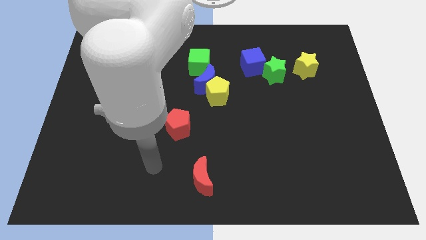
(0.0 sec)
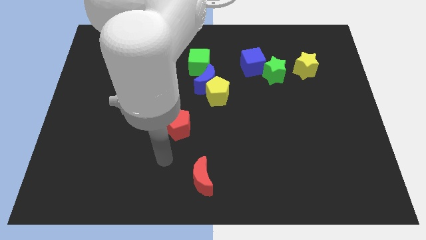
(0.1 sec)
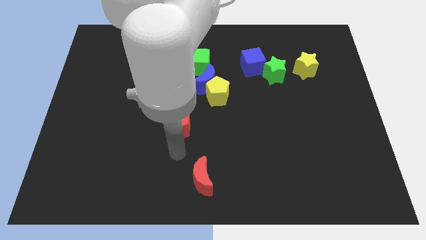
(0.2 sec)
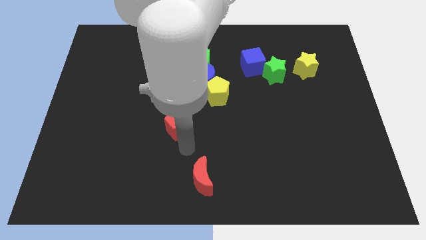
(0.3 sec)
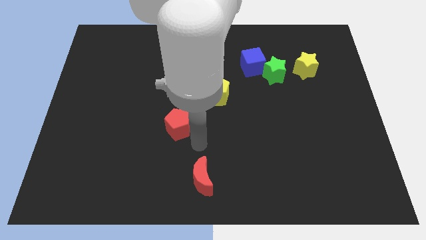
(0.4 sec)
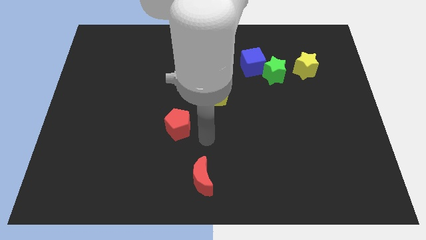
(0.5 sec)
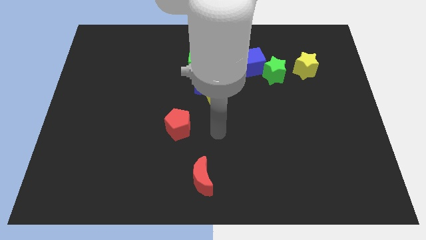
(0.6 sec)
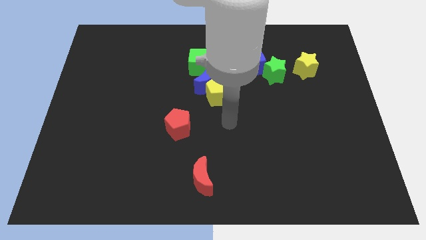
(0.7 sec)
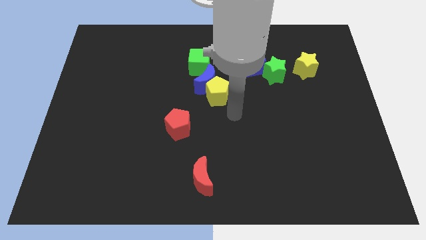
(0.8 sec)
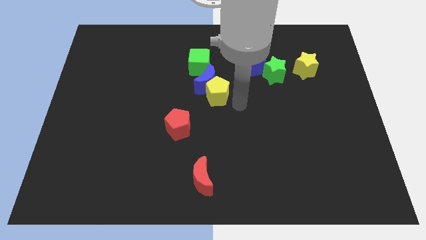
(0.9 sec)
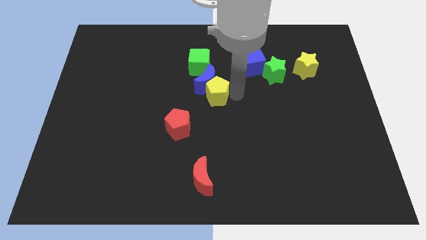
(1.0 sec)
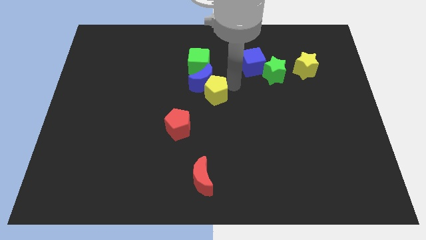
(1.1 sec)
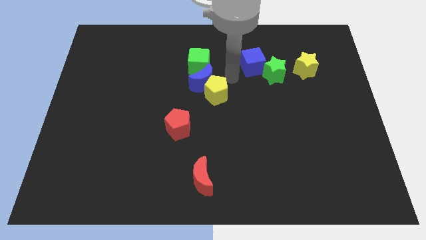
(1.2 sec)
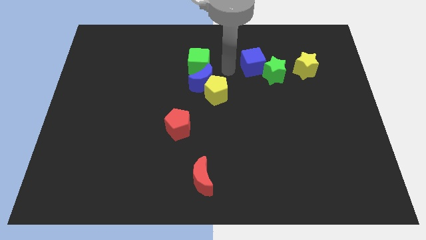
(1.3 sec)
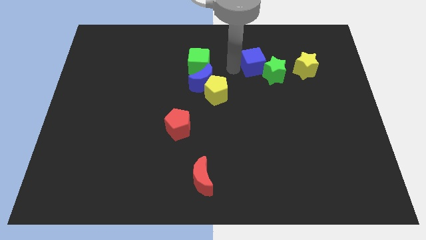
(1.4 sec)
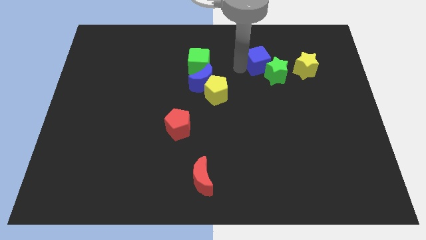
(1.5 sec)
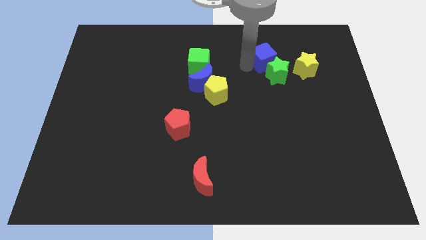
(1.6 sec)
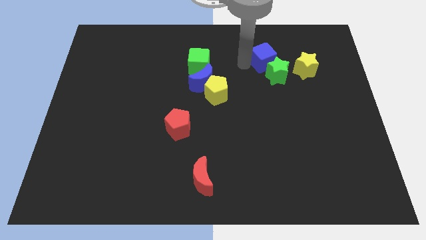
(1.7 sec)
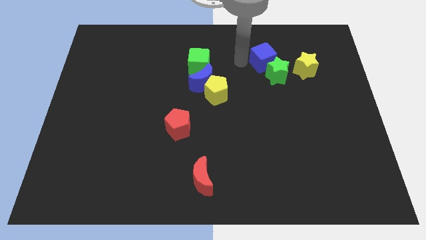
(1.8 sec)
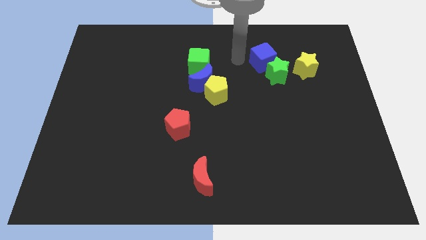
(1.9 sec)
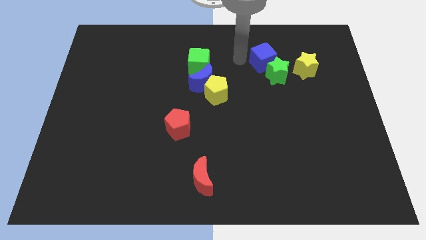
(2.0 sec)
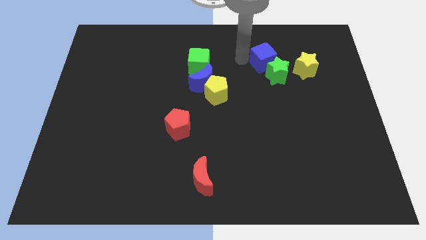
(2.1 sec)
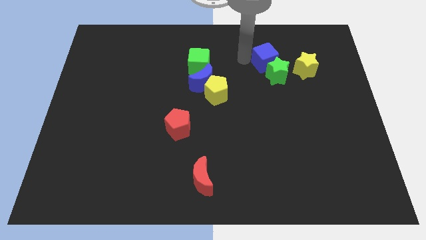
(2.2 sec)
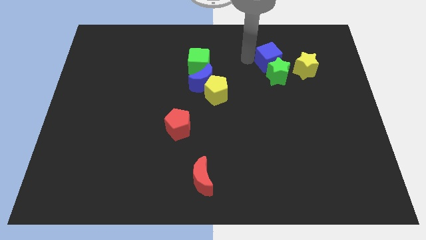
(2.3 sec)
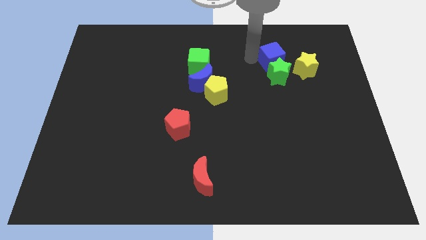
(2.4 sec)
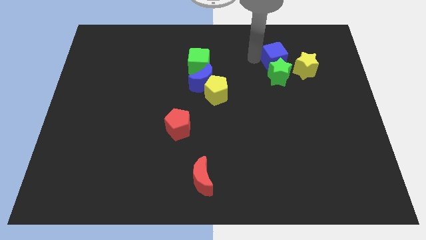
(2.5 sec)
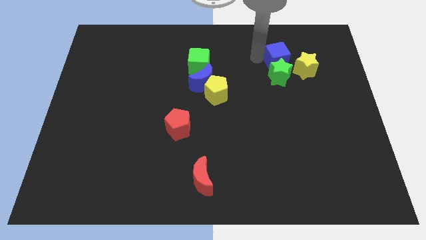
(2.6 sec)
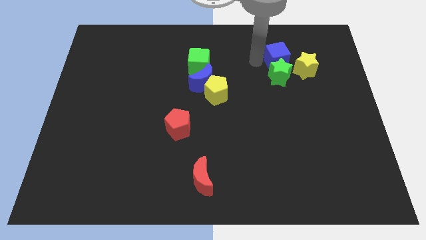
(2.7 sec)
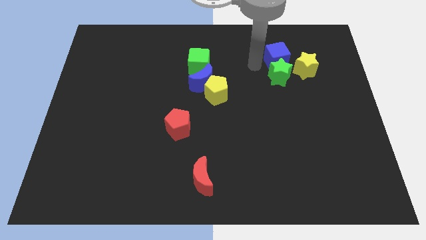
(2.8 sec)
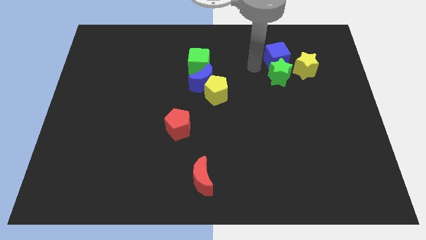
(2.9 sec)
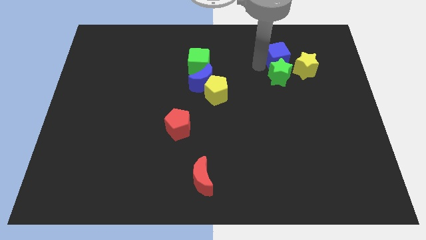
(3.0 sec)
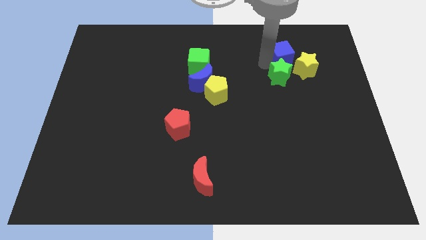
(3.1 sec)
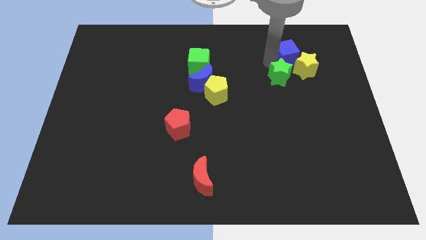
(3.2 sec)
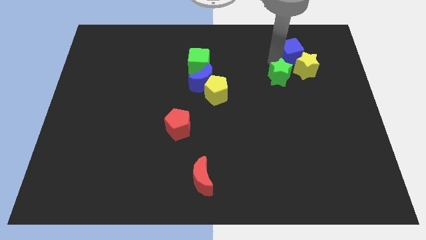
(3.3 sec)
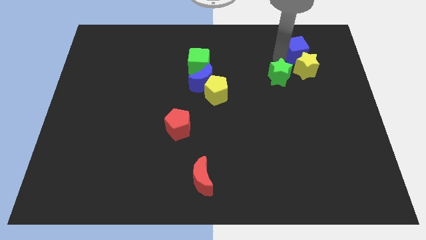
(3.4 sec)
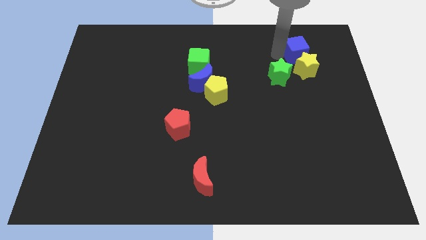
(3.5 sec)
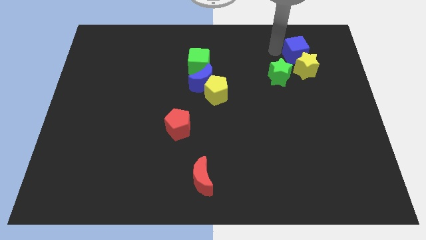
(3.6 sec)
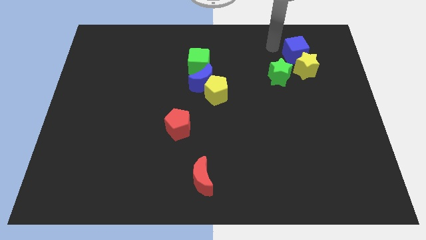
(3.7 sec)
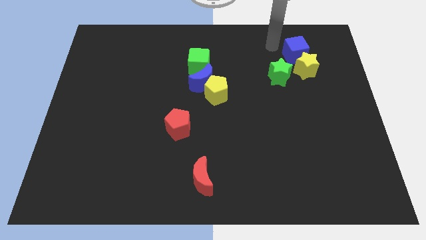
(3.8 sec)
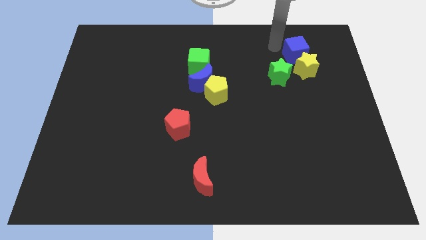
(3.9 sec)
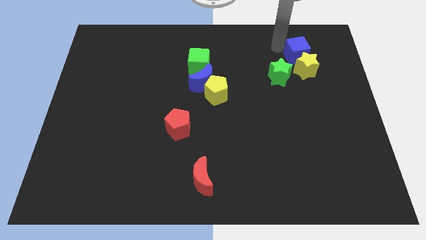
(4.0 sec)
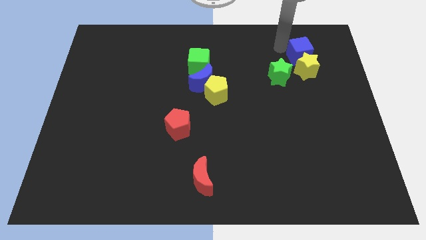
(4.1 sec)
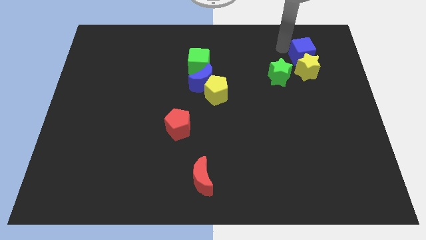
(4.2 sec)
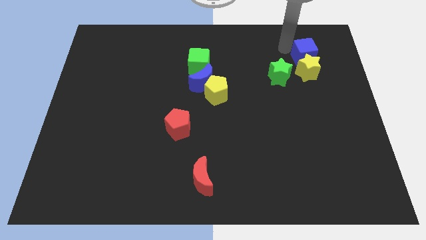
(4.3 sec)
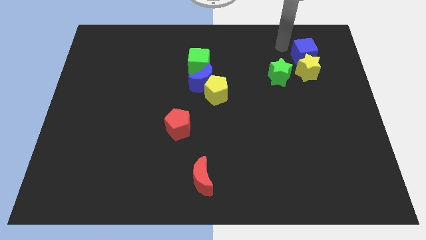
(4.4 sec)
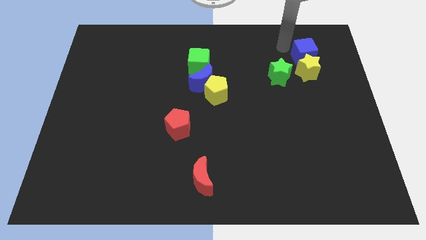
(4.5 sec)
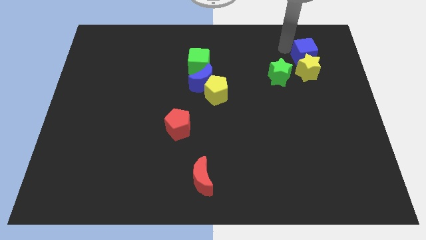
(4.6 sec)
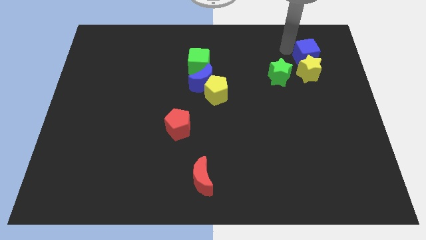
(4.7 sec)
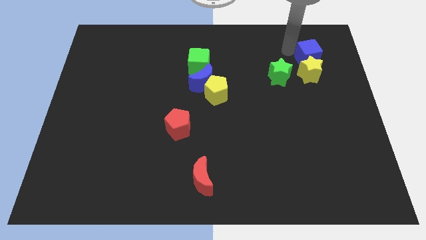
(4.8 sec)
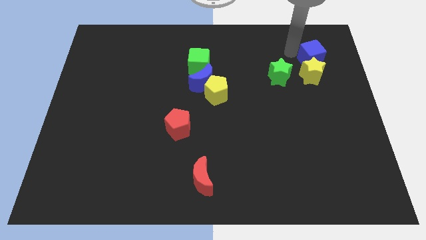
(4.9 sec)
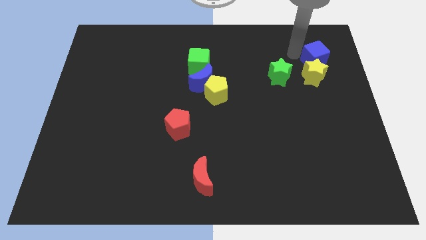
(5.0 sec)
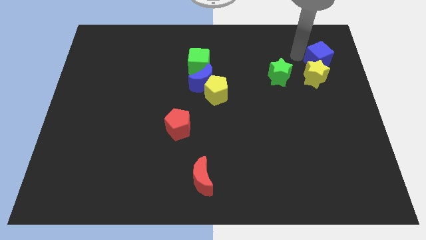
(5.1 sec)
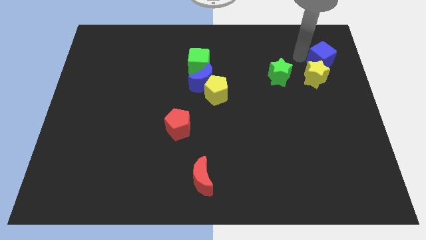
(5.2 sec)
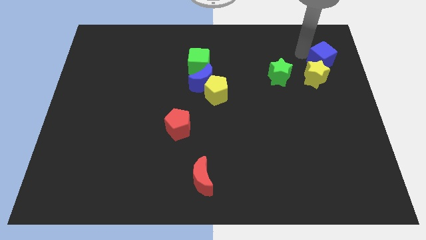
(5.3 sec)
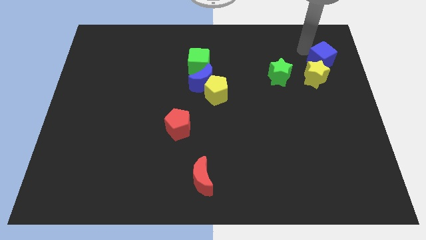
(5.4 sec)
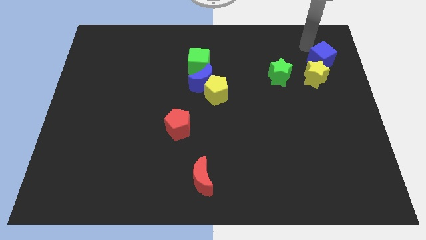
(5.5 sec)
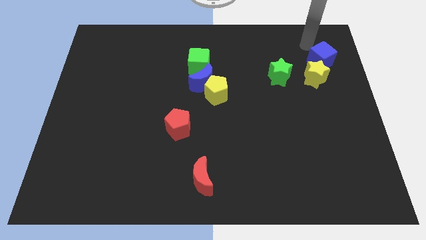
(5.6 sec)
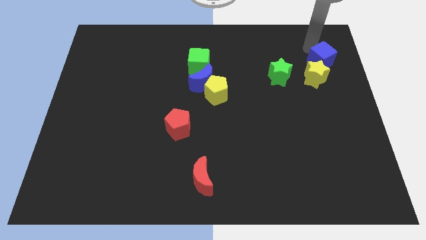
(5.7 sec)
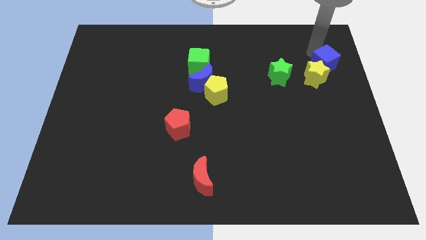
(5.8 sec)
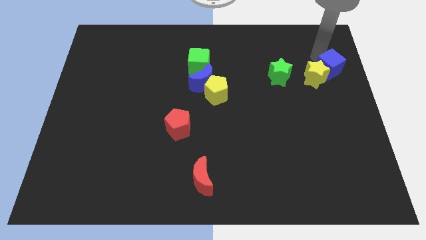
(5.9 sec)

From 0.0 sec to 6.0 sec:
push the blue cube to the right side of the board
